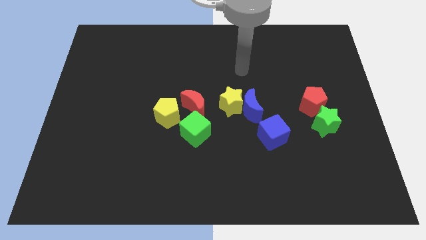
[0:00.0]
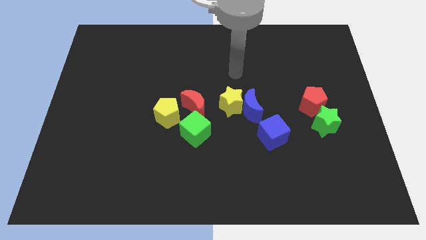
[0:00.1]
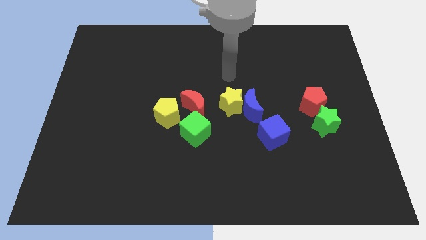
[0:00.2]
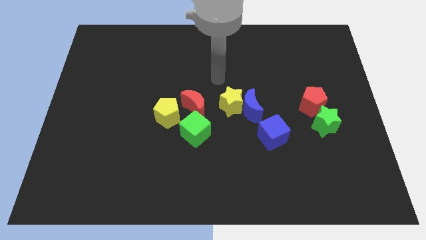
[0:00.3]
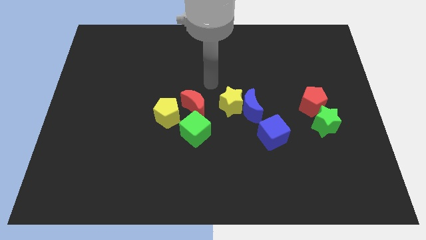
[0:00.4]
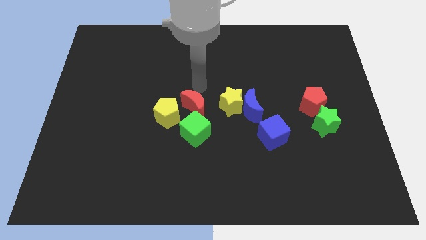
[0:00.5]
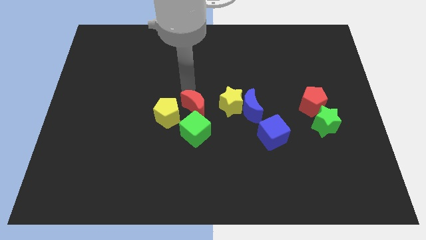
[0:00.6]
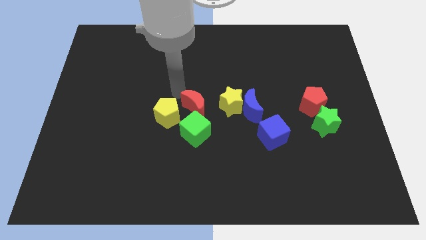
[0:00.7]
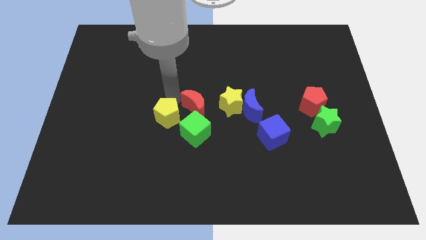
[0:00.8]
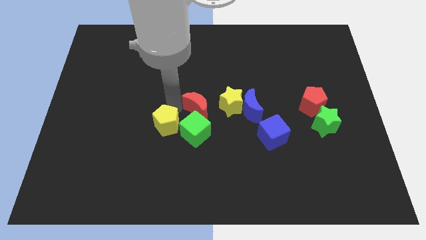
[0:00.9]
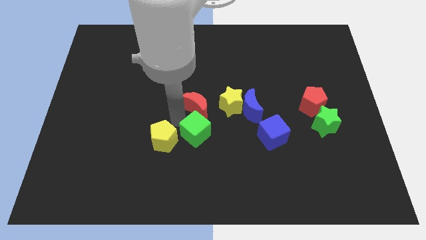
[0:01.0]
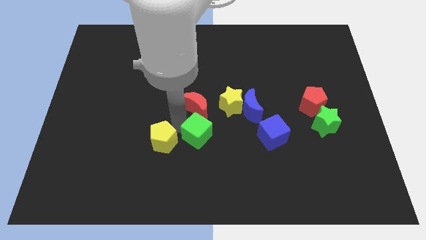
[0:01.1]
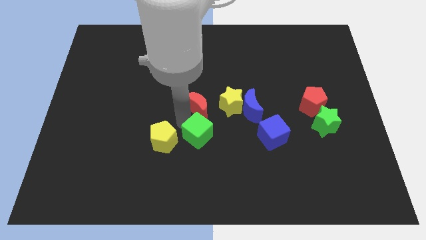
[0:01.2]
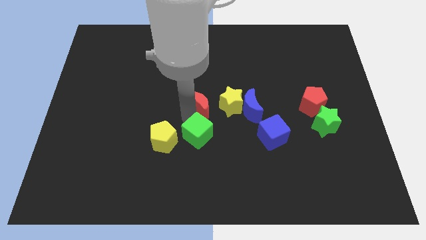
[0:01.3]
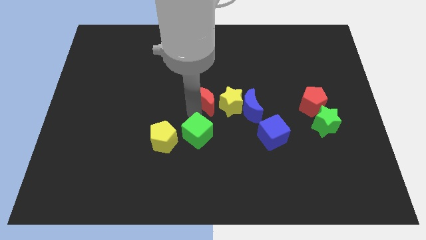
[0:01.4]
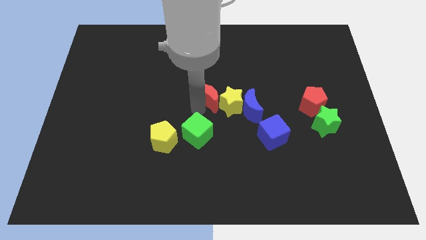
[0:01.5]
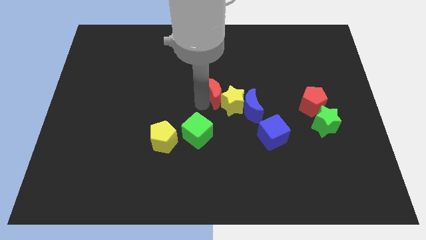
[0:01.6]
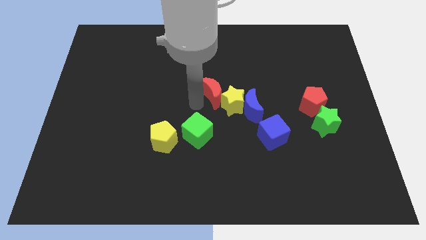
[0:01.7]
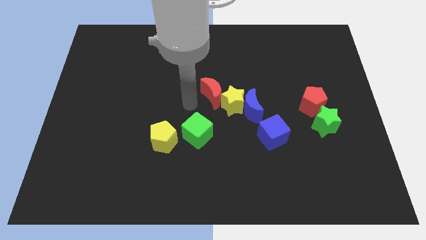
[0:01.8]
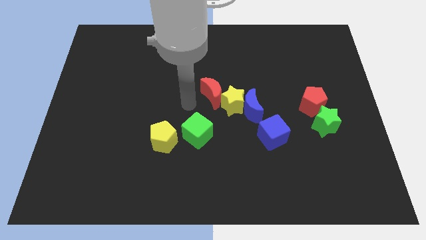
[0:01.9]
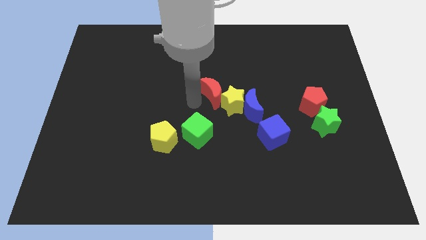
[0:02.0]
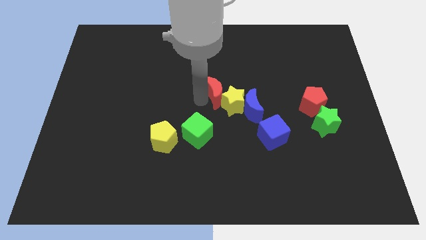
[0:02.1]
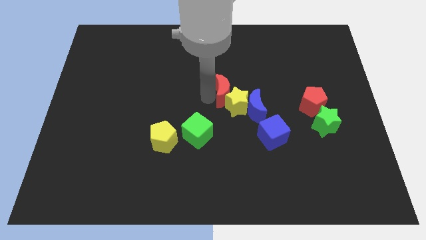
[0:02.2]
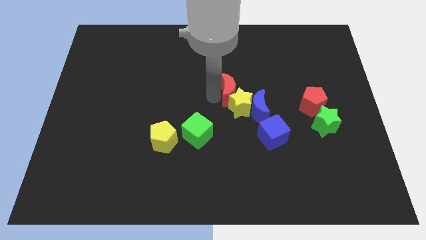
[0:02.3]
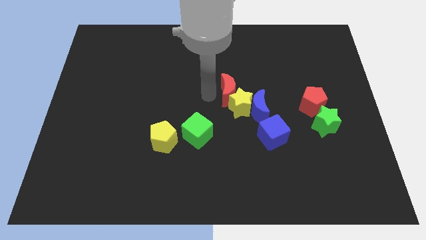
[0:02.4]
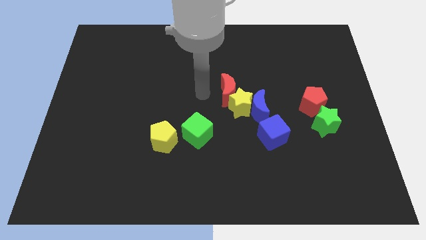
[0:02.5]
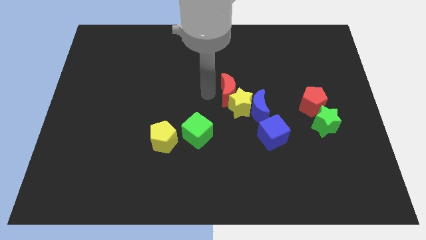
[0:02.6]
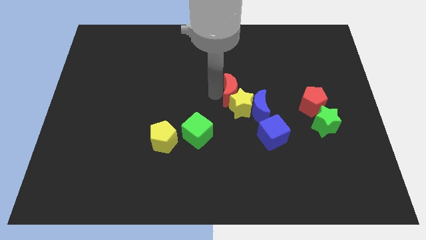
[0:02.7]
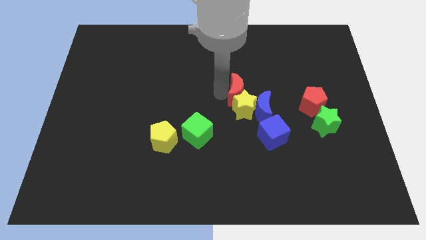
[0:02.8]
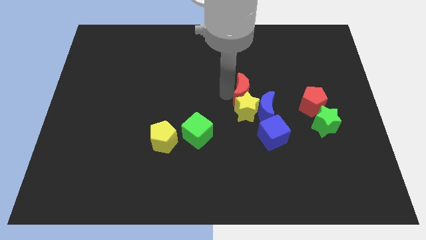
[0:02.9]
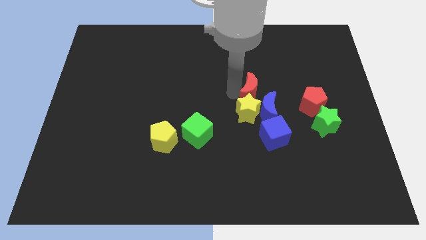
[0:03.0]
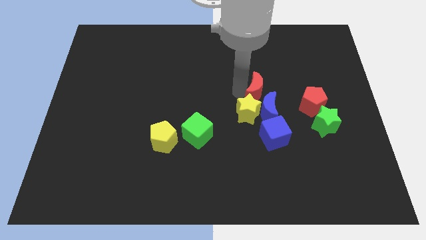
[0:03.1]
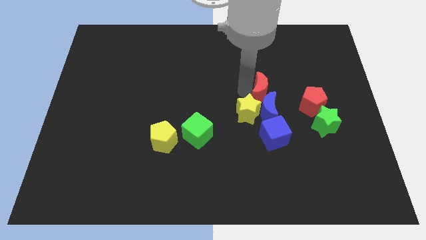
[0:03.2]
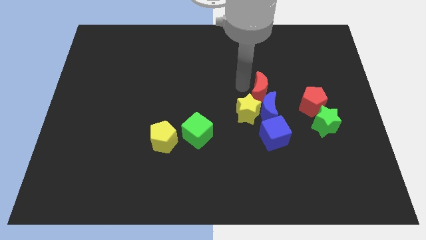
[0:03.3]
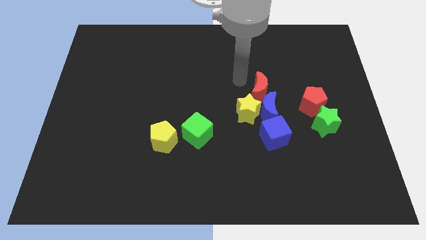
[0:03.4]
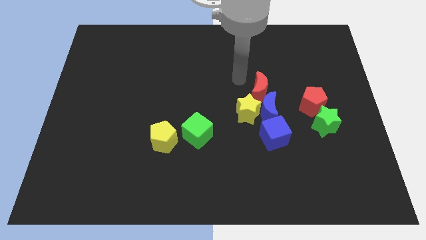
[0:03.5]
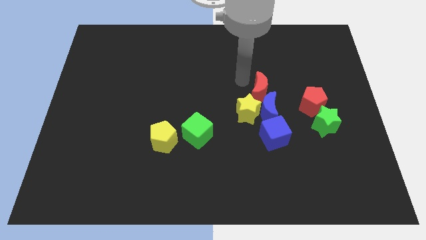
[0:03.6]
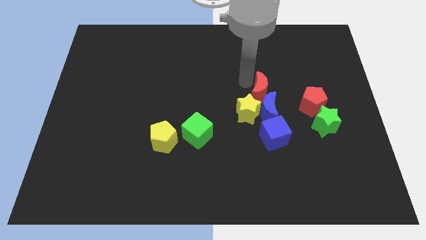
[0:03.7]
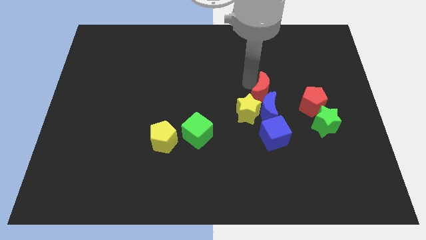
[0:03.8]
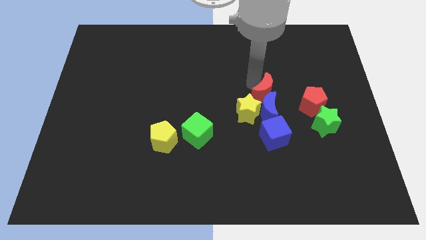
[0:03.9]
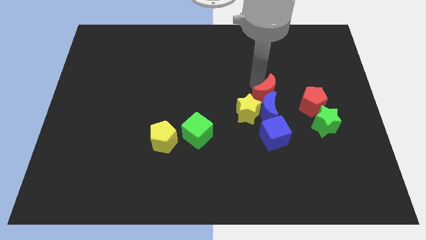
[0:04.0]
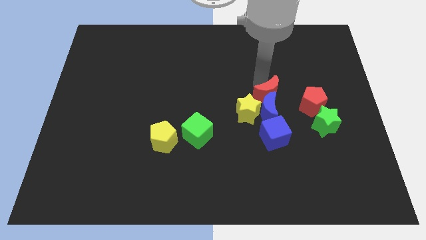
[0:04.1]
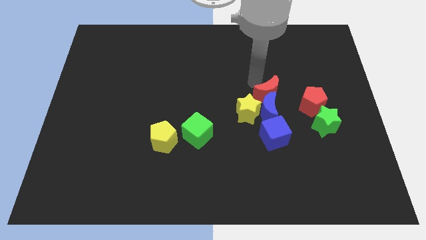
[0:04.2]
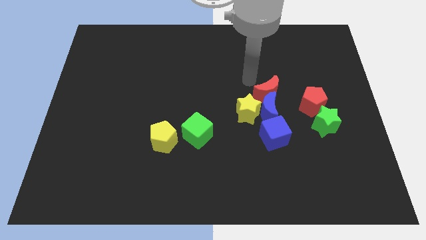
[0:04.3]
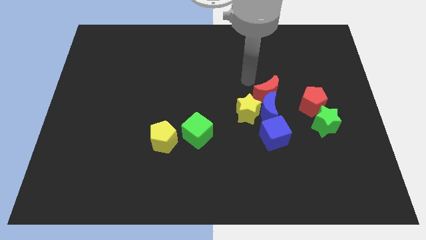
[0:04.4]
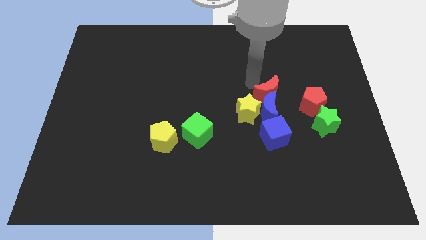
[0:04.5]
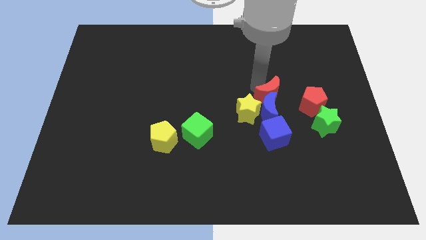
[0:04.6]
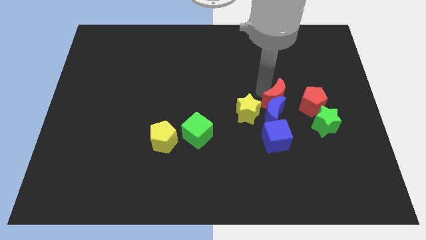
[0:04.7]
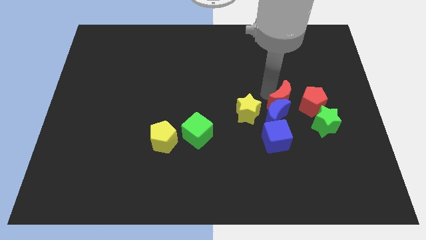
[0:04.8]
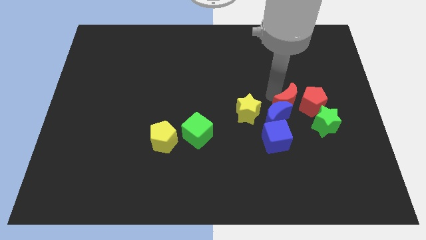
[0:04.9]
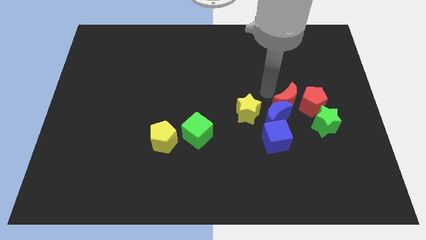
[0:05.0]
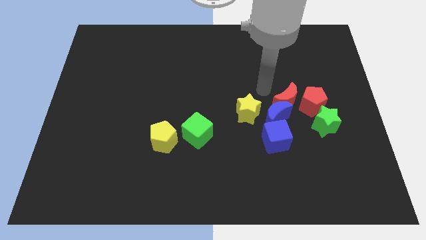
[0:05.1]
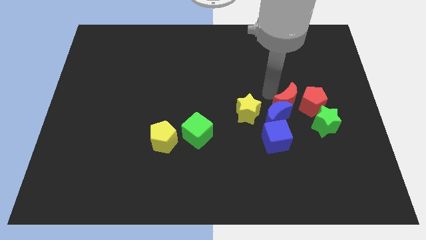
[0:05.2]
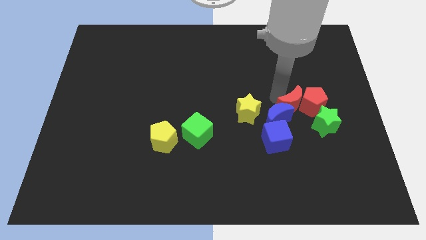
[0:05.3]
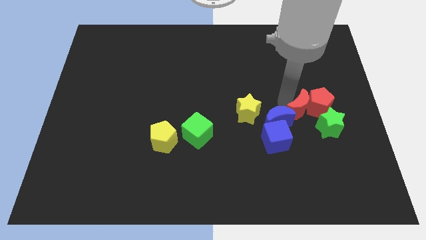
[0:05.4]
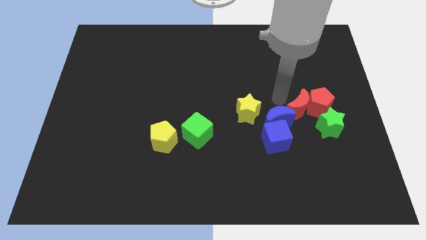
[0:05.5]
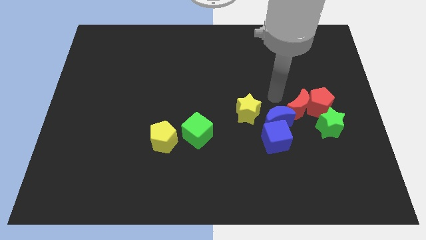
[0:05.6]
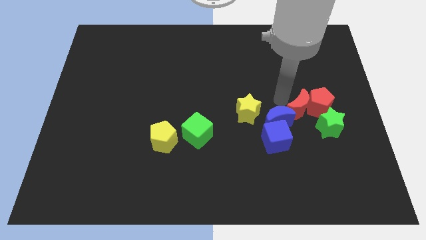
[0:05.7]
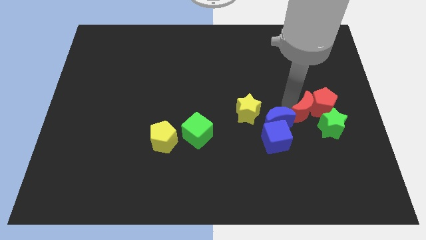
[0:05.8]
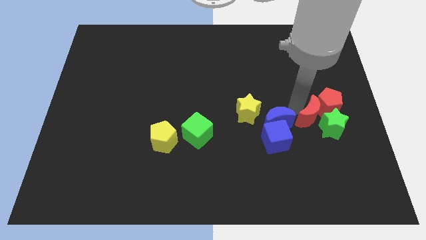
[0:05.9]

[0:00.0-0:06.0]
move the red moon close to the green star
